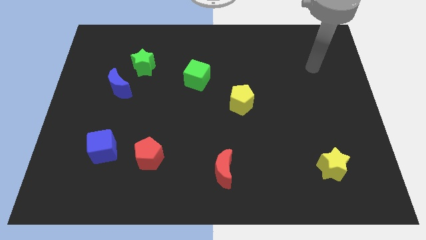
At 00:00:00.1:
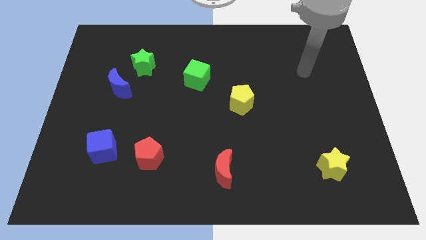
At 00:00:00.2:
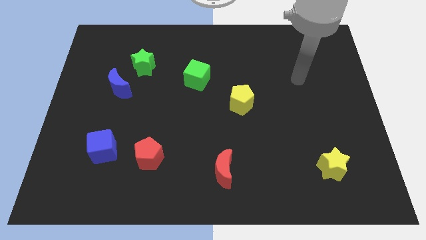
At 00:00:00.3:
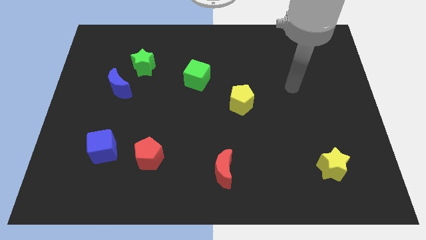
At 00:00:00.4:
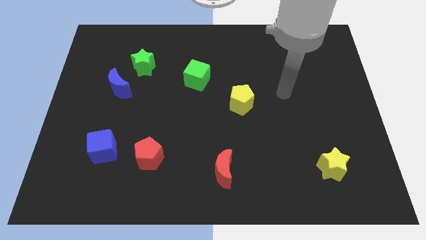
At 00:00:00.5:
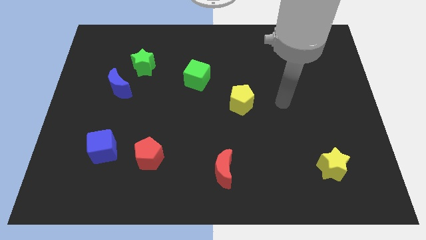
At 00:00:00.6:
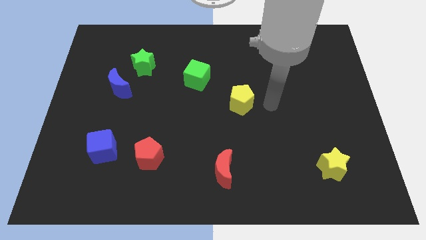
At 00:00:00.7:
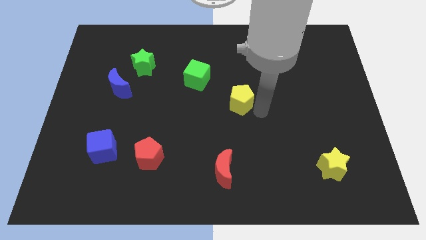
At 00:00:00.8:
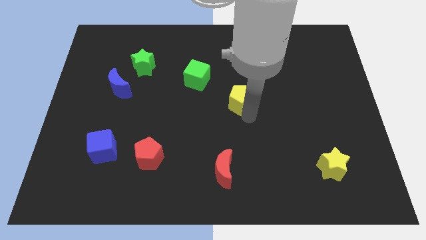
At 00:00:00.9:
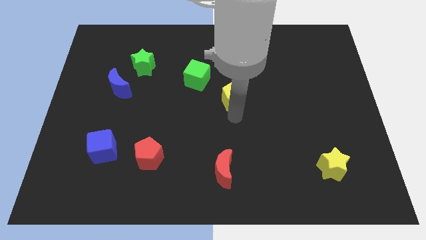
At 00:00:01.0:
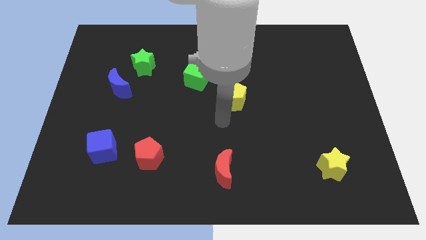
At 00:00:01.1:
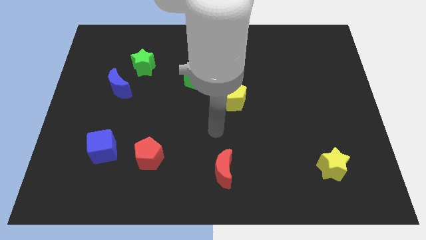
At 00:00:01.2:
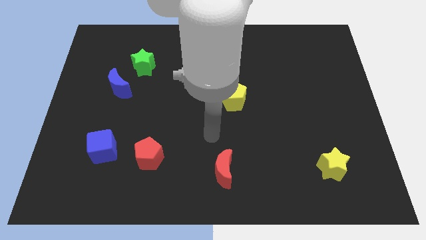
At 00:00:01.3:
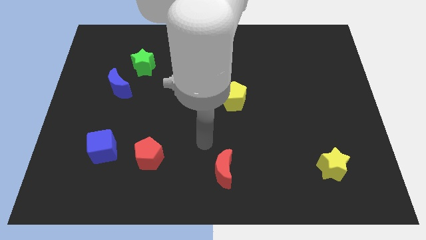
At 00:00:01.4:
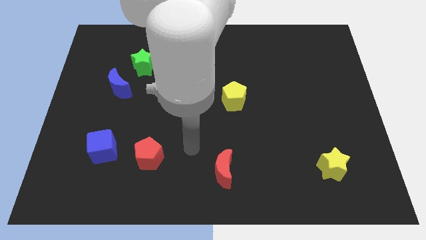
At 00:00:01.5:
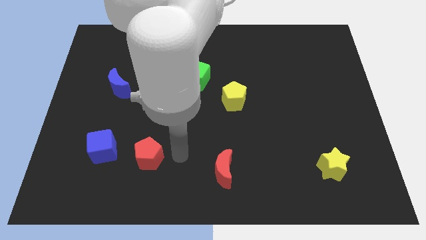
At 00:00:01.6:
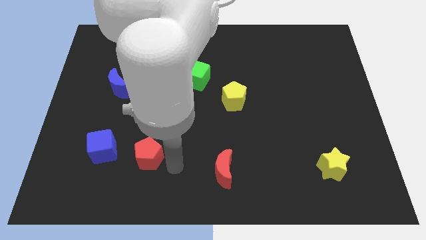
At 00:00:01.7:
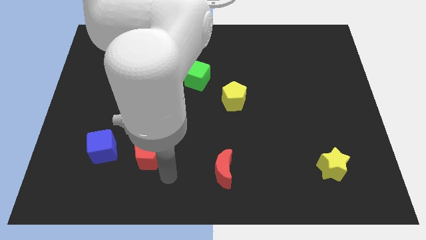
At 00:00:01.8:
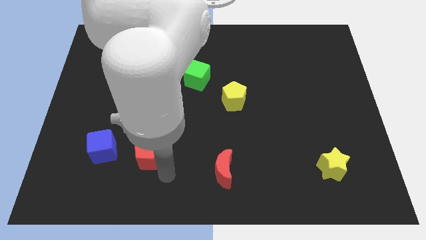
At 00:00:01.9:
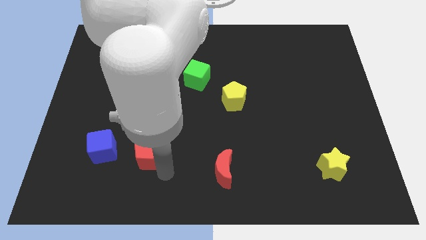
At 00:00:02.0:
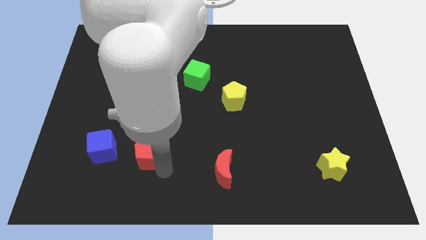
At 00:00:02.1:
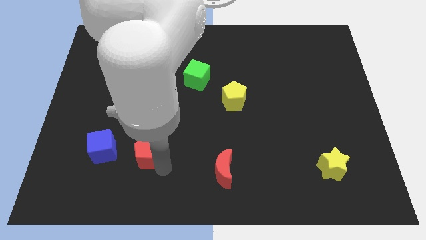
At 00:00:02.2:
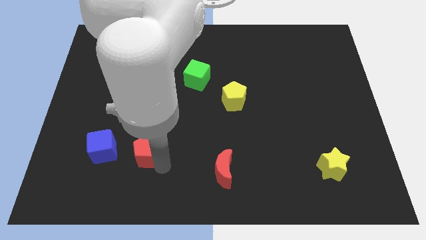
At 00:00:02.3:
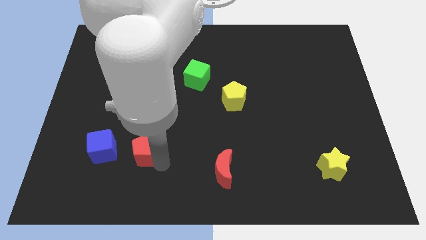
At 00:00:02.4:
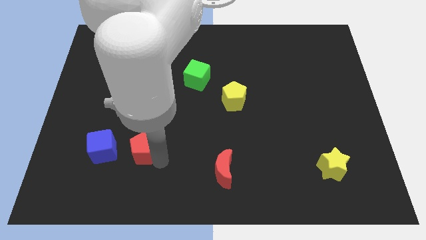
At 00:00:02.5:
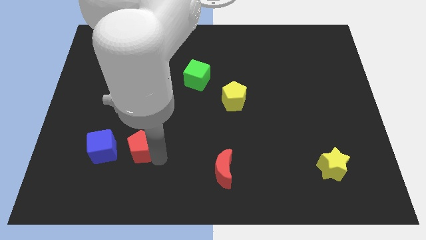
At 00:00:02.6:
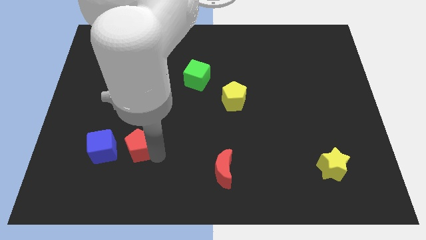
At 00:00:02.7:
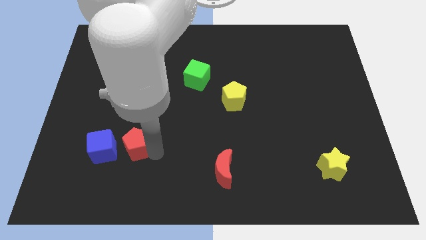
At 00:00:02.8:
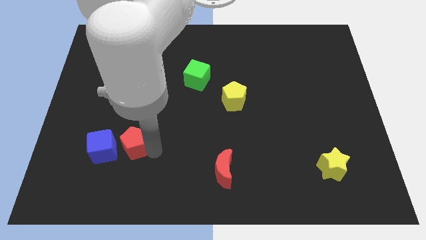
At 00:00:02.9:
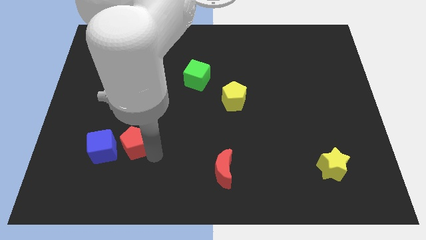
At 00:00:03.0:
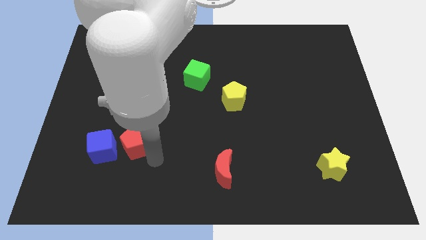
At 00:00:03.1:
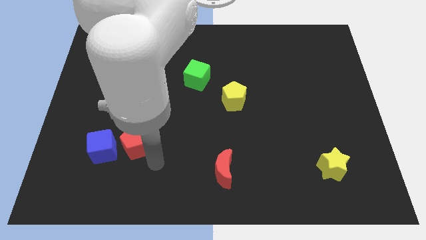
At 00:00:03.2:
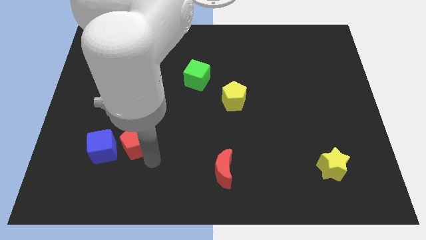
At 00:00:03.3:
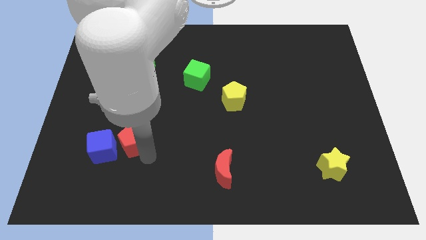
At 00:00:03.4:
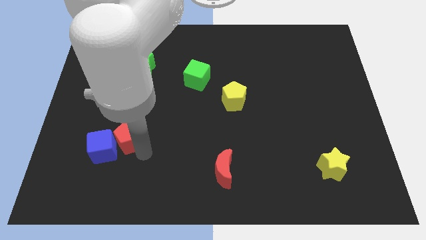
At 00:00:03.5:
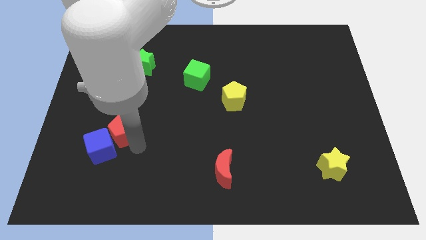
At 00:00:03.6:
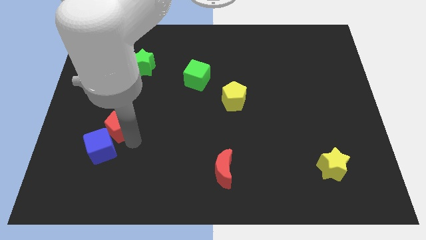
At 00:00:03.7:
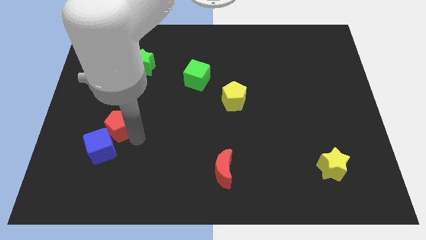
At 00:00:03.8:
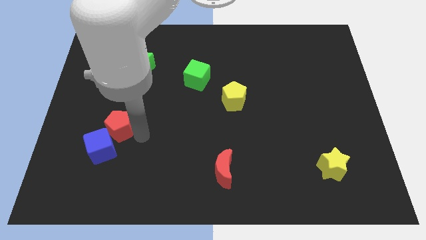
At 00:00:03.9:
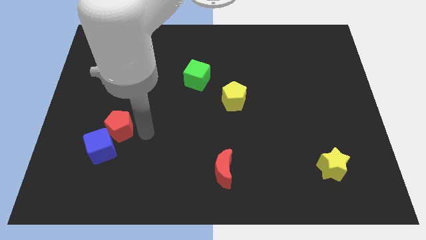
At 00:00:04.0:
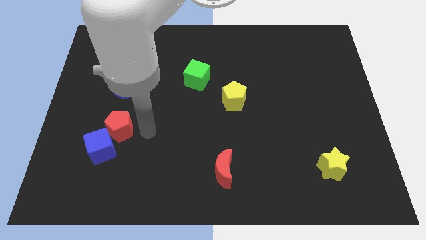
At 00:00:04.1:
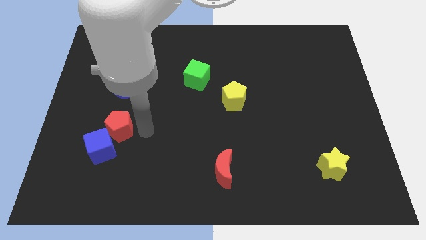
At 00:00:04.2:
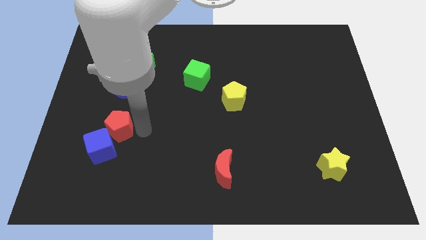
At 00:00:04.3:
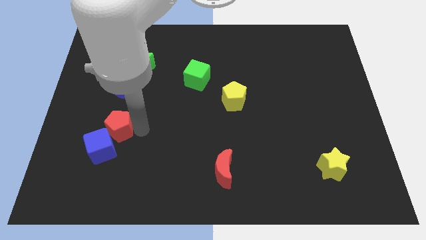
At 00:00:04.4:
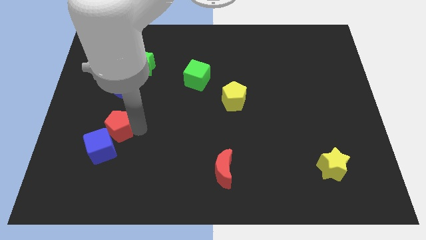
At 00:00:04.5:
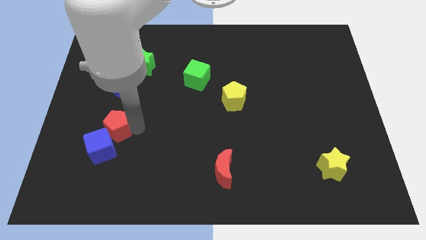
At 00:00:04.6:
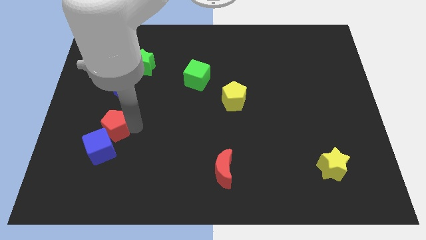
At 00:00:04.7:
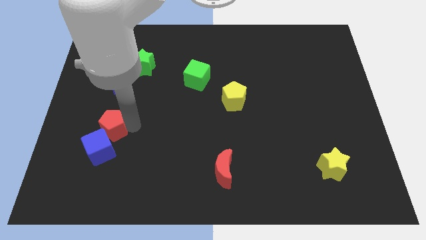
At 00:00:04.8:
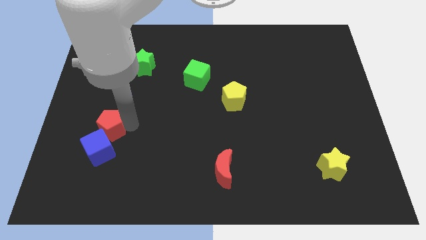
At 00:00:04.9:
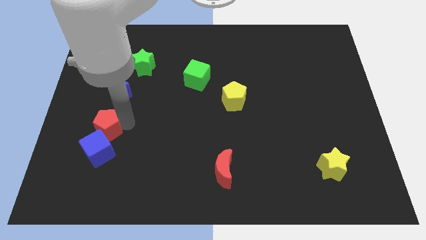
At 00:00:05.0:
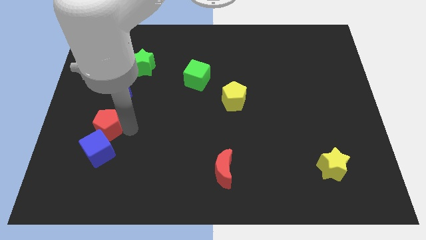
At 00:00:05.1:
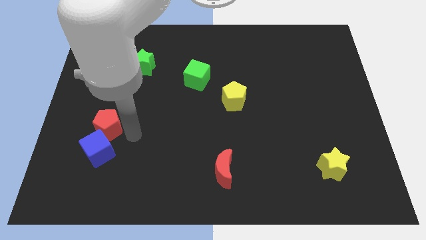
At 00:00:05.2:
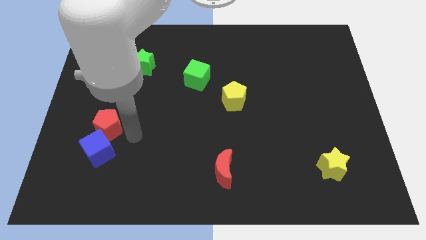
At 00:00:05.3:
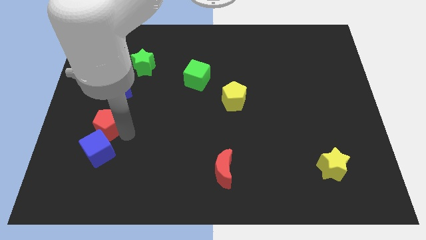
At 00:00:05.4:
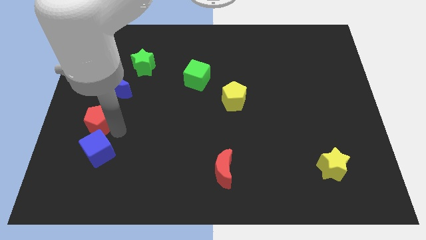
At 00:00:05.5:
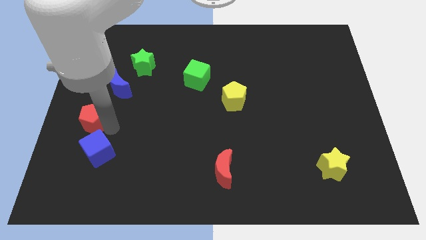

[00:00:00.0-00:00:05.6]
slide the red pentagon to the left side

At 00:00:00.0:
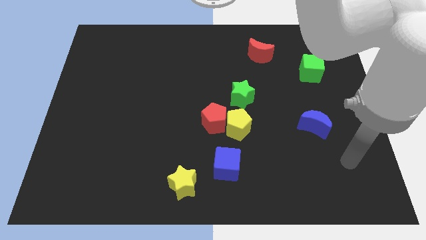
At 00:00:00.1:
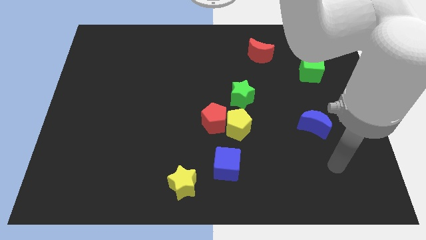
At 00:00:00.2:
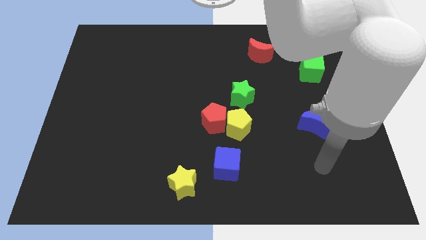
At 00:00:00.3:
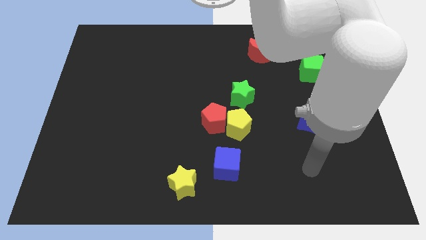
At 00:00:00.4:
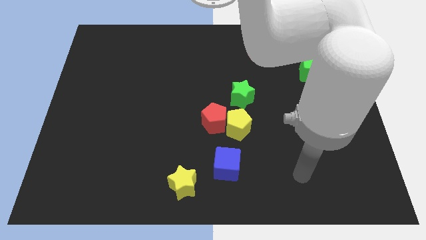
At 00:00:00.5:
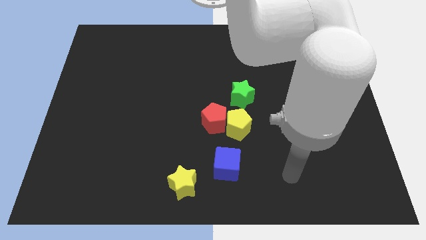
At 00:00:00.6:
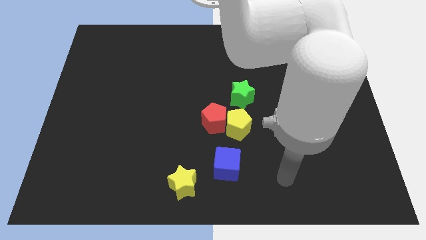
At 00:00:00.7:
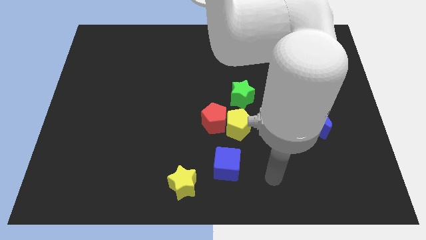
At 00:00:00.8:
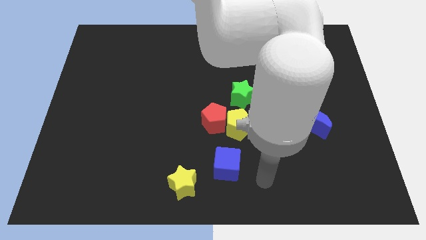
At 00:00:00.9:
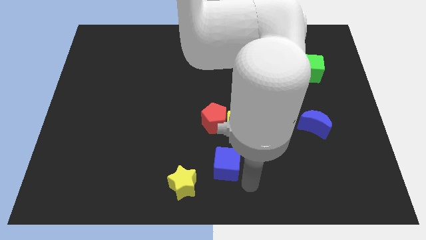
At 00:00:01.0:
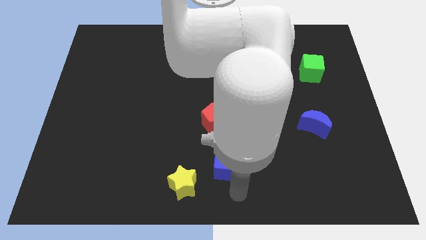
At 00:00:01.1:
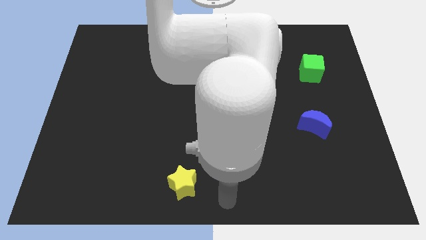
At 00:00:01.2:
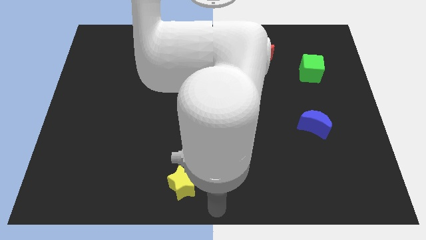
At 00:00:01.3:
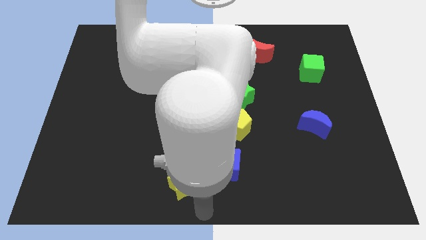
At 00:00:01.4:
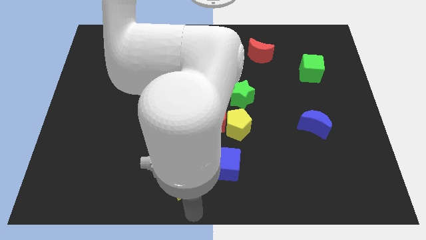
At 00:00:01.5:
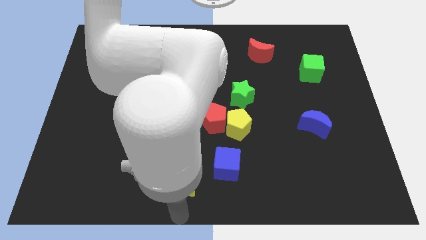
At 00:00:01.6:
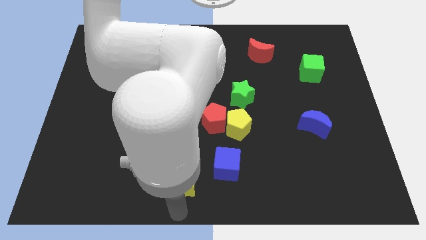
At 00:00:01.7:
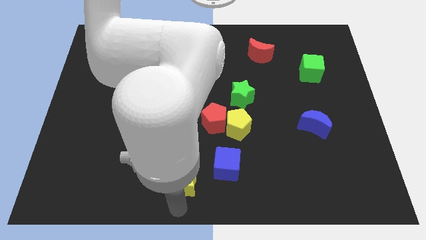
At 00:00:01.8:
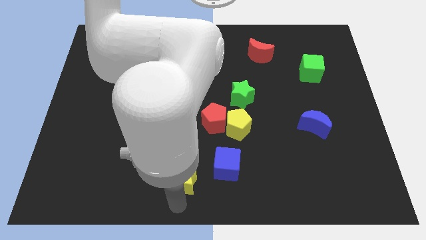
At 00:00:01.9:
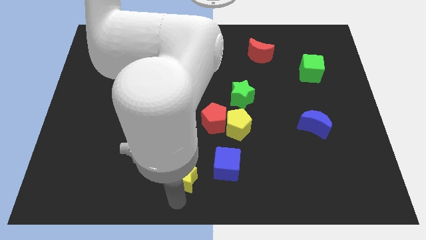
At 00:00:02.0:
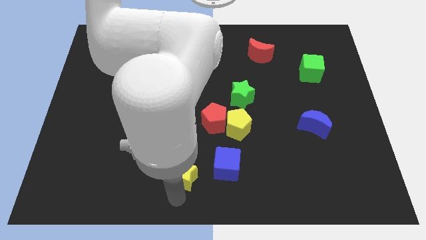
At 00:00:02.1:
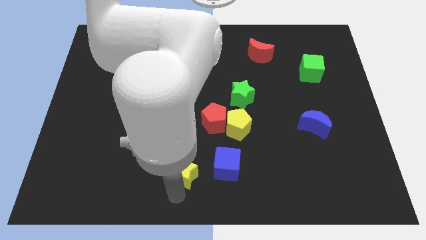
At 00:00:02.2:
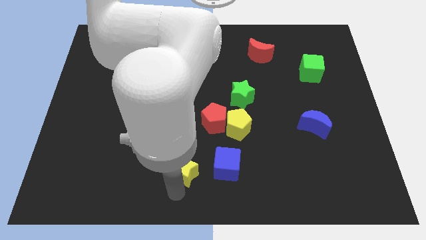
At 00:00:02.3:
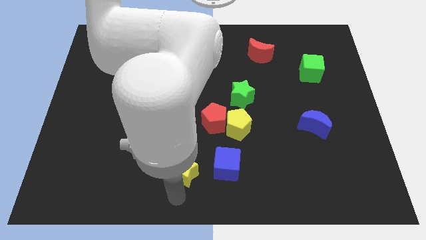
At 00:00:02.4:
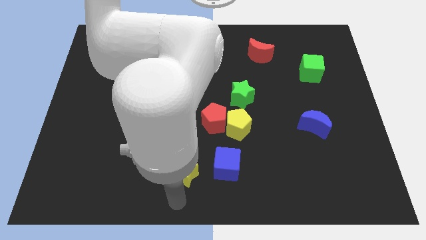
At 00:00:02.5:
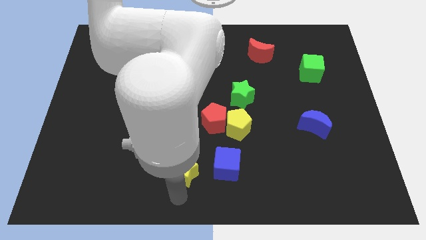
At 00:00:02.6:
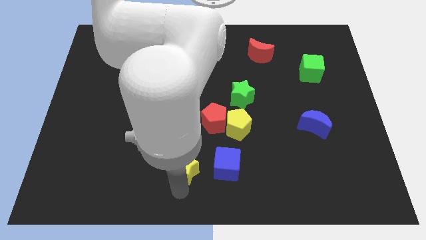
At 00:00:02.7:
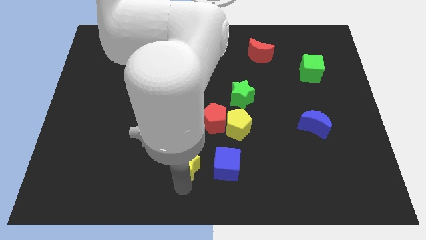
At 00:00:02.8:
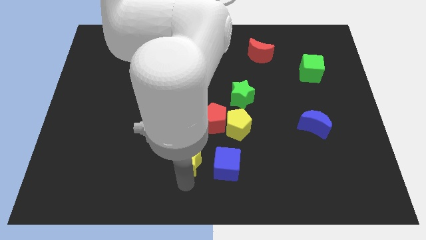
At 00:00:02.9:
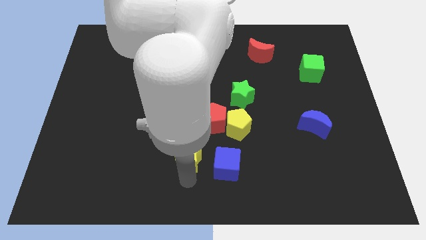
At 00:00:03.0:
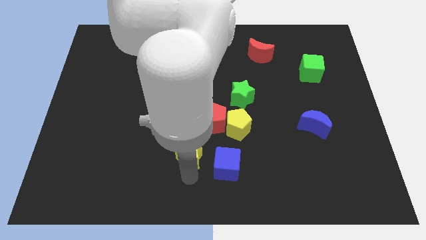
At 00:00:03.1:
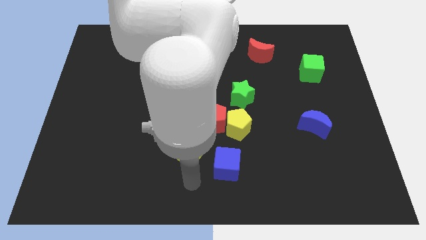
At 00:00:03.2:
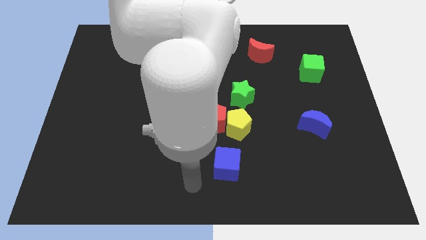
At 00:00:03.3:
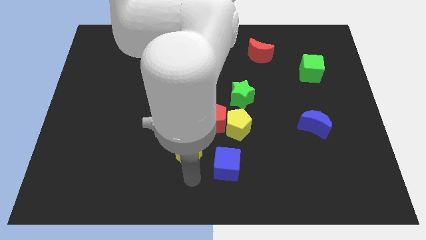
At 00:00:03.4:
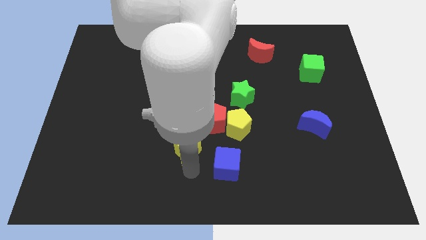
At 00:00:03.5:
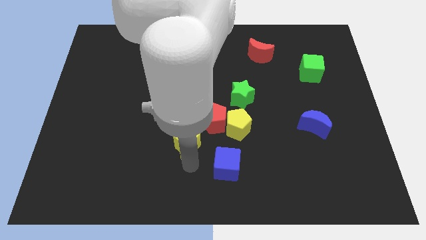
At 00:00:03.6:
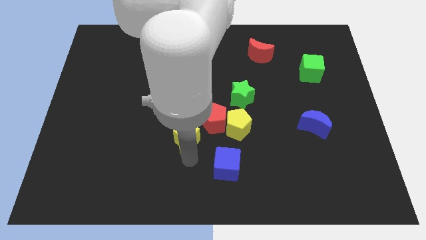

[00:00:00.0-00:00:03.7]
push the yellow star to the middle
